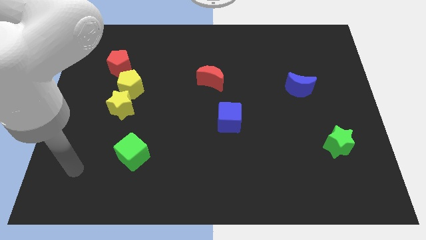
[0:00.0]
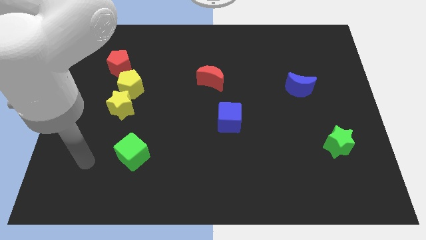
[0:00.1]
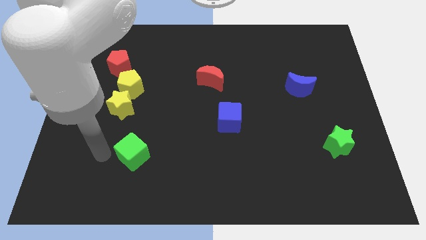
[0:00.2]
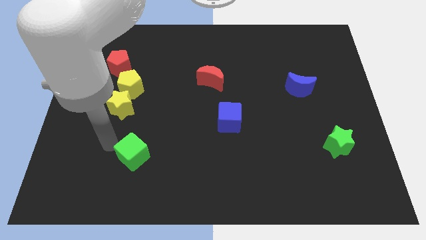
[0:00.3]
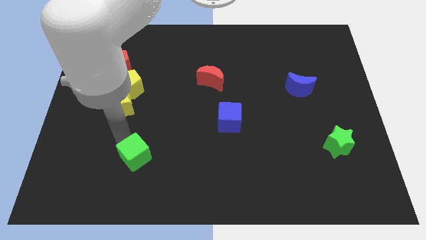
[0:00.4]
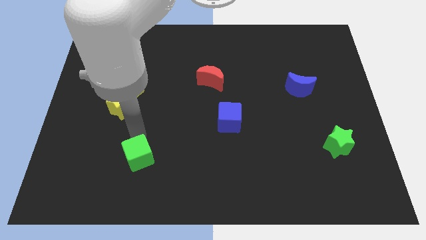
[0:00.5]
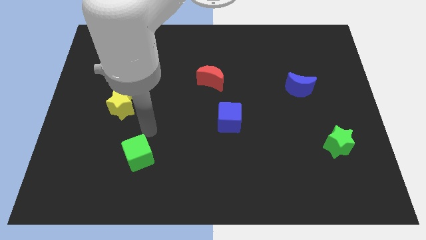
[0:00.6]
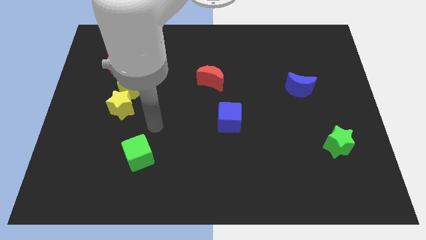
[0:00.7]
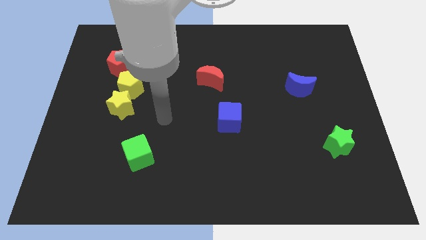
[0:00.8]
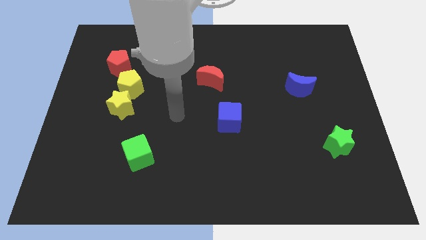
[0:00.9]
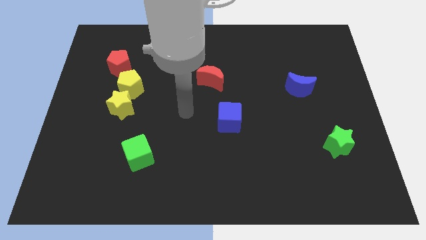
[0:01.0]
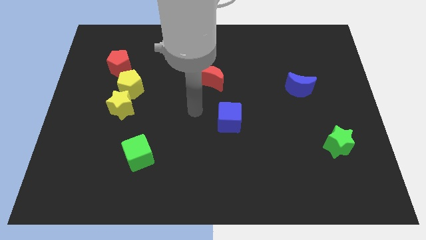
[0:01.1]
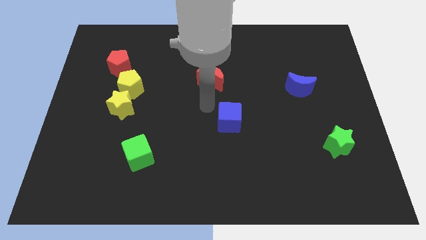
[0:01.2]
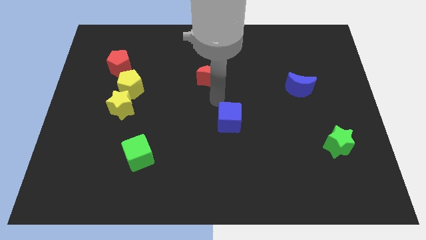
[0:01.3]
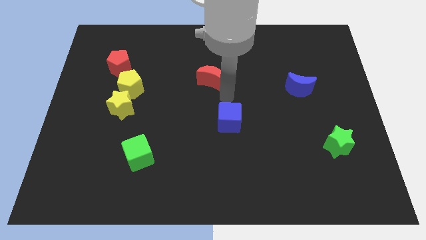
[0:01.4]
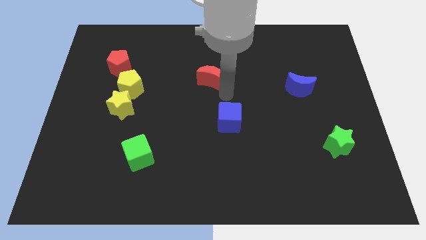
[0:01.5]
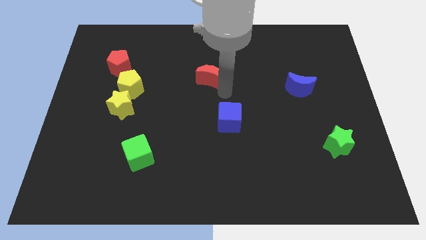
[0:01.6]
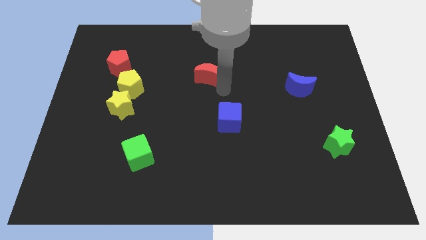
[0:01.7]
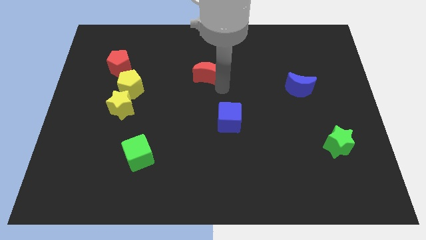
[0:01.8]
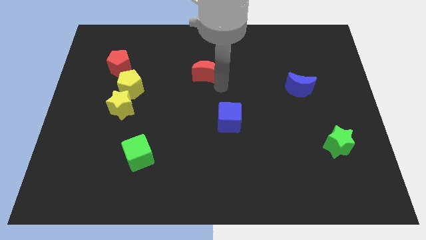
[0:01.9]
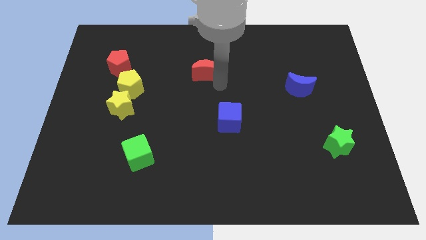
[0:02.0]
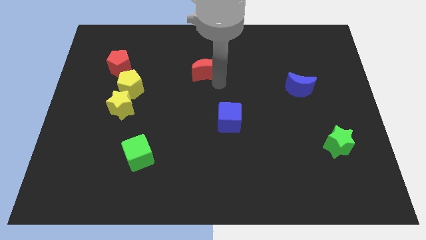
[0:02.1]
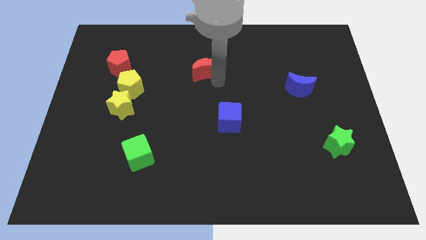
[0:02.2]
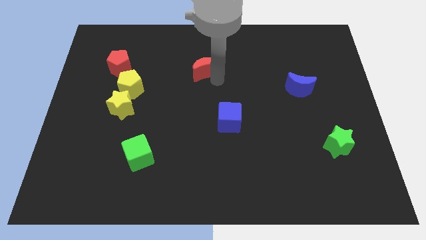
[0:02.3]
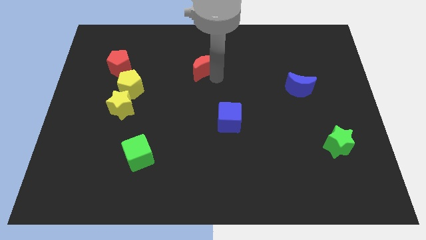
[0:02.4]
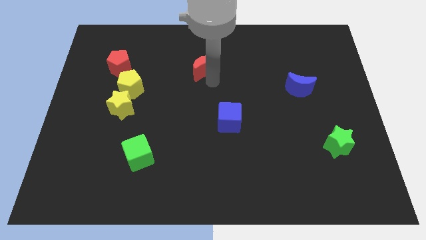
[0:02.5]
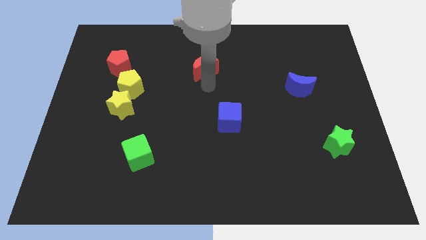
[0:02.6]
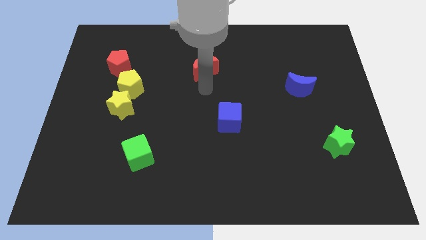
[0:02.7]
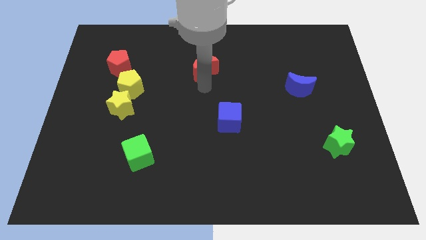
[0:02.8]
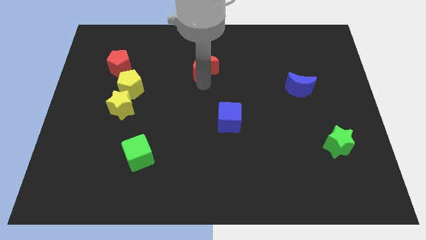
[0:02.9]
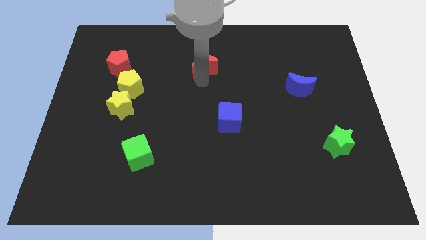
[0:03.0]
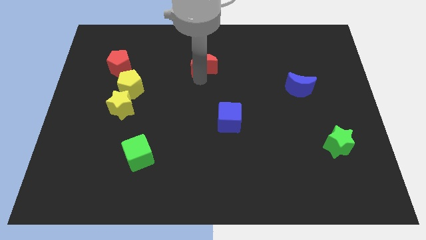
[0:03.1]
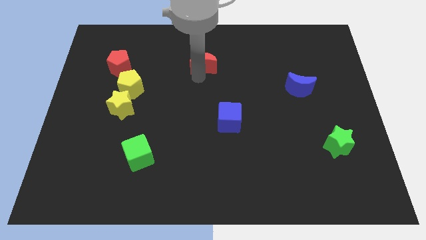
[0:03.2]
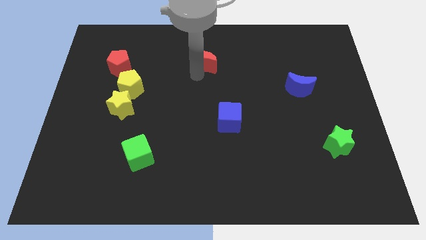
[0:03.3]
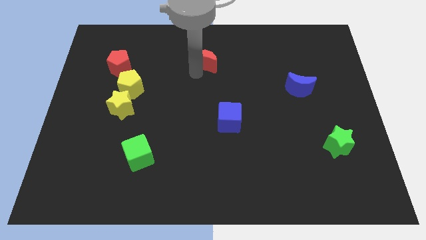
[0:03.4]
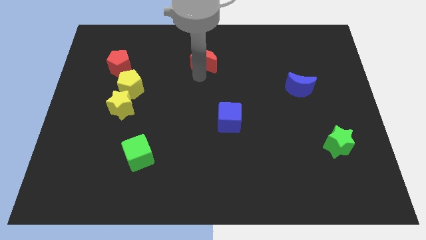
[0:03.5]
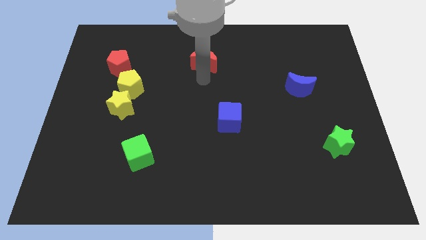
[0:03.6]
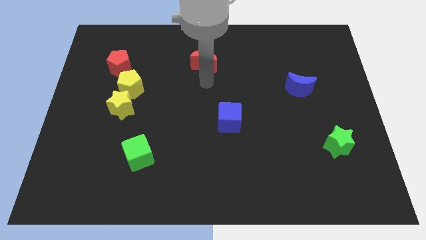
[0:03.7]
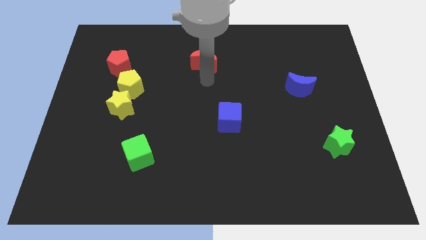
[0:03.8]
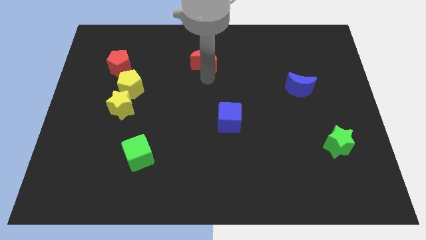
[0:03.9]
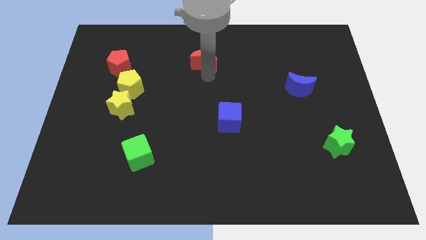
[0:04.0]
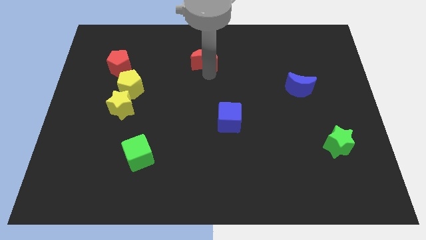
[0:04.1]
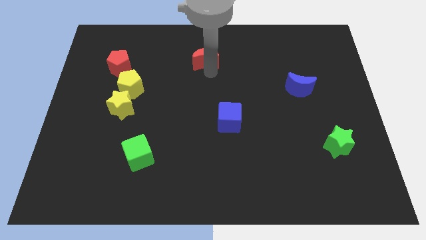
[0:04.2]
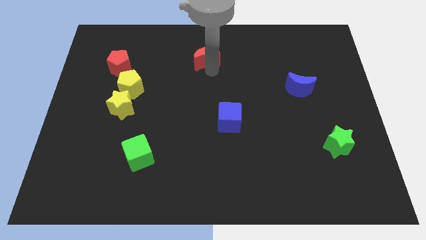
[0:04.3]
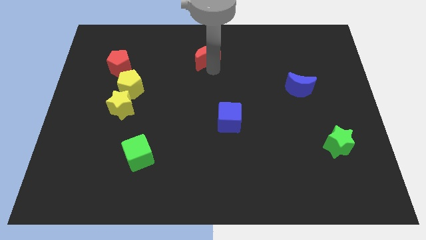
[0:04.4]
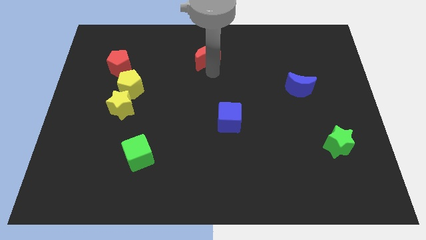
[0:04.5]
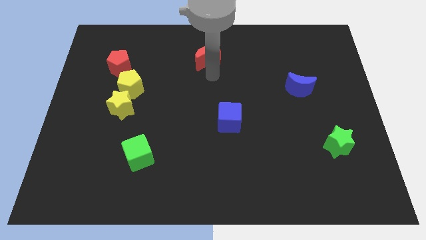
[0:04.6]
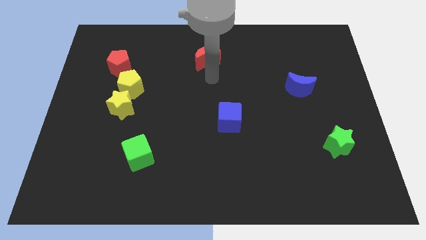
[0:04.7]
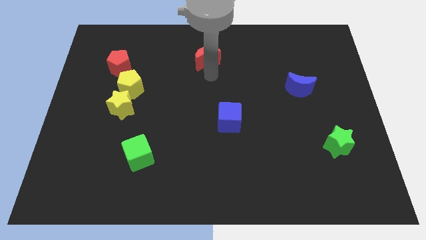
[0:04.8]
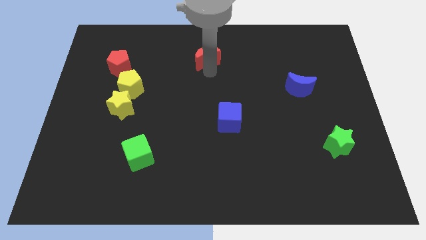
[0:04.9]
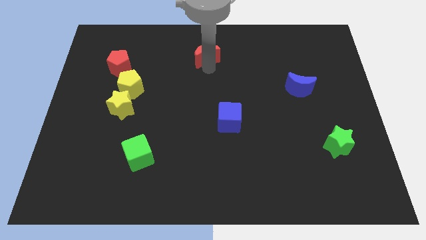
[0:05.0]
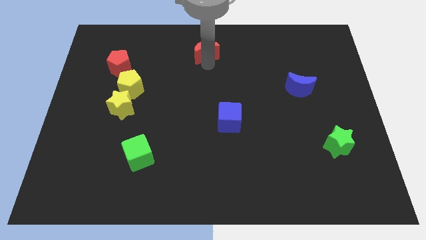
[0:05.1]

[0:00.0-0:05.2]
push the red moon to the towards your base

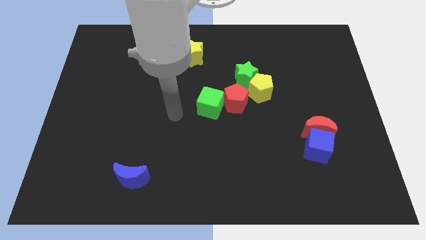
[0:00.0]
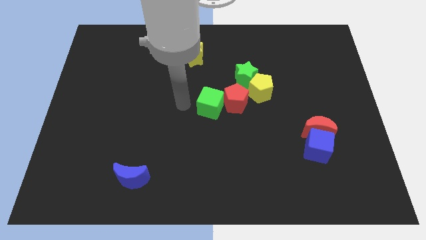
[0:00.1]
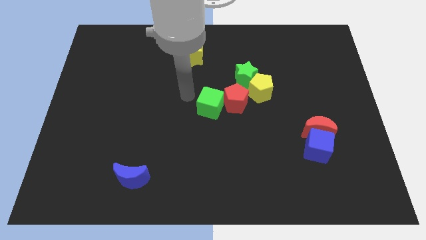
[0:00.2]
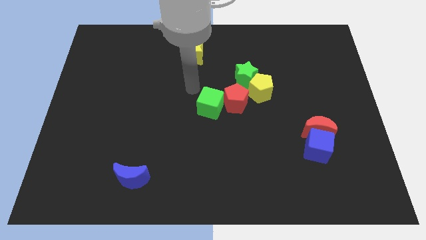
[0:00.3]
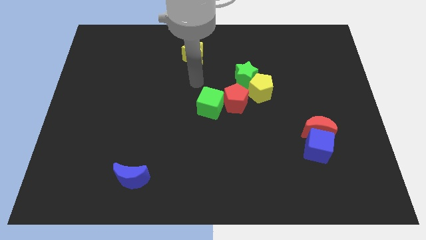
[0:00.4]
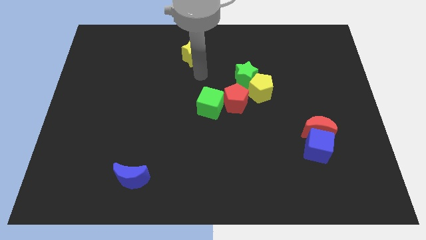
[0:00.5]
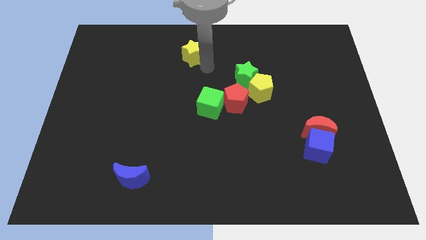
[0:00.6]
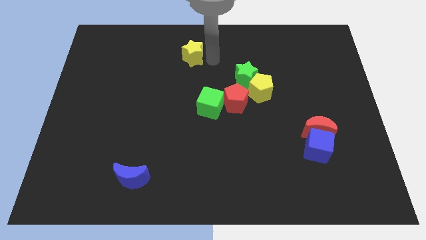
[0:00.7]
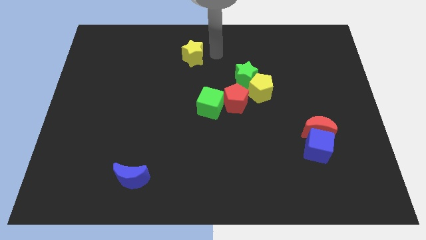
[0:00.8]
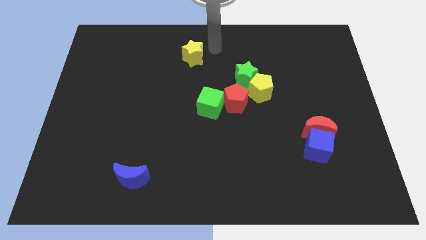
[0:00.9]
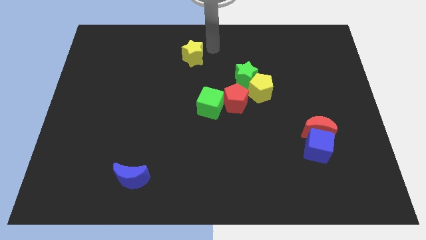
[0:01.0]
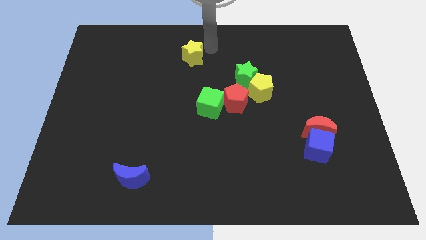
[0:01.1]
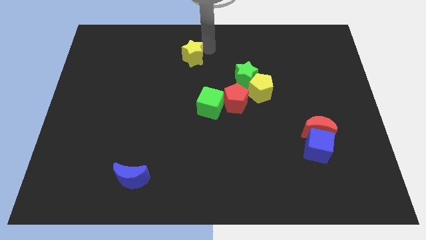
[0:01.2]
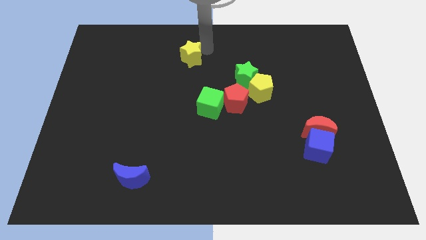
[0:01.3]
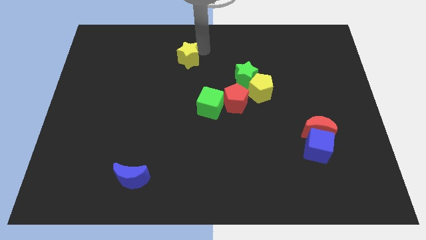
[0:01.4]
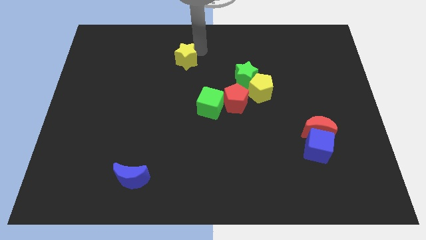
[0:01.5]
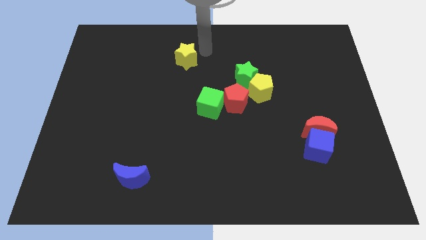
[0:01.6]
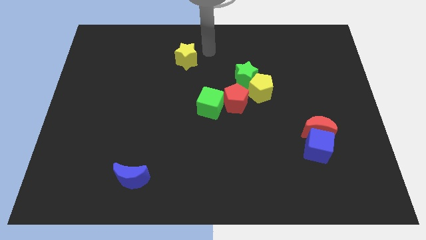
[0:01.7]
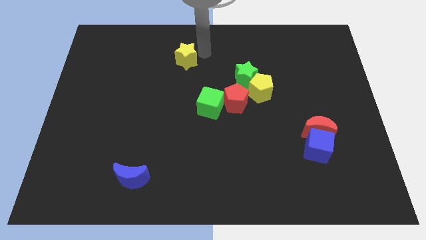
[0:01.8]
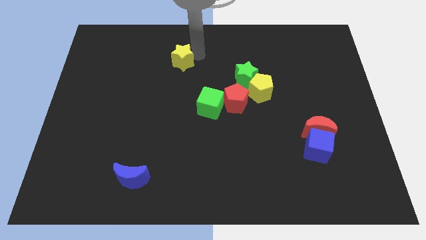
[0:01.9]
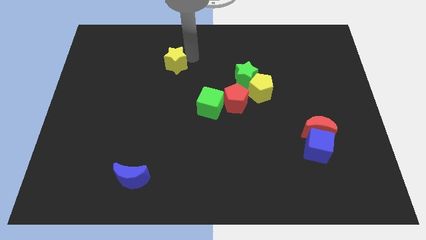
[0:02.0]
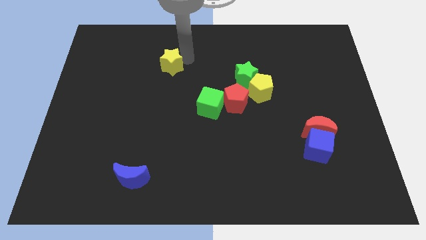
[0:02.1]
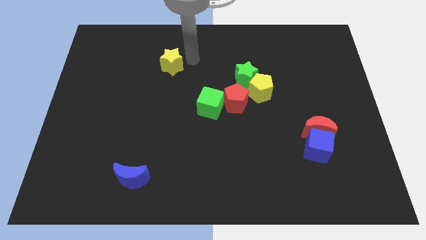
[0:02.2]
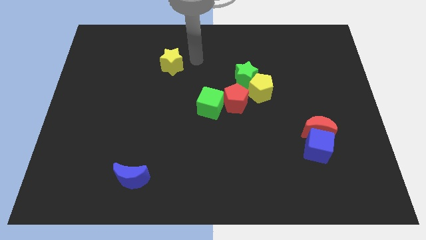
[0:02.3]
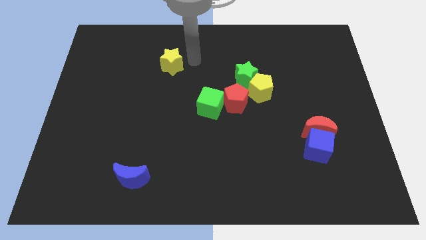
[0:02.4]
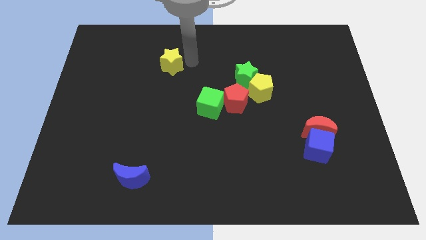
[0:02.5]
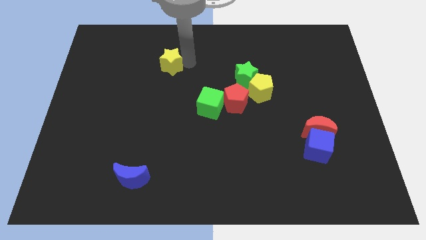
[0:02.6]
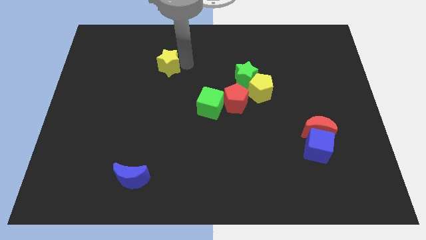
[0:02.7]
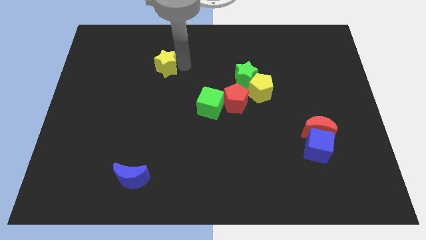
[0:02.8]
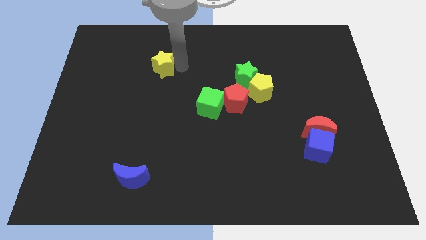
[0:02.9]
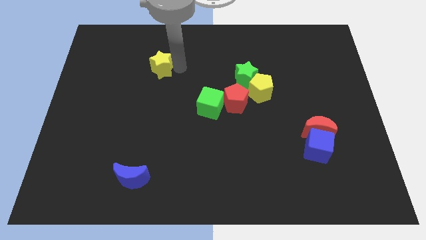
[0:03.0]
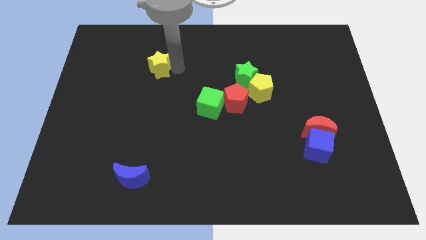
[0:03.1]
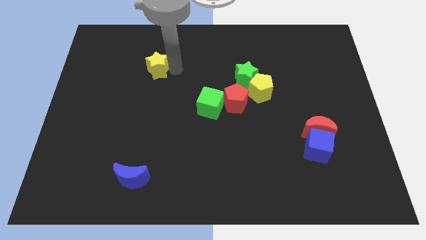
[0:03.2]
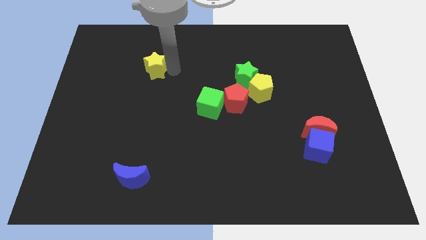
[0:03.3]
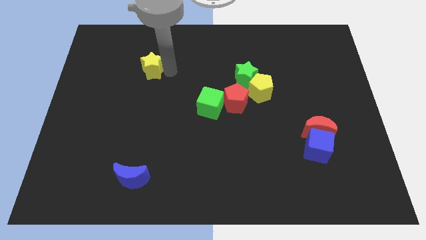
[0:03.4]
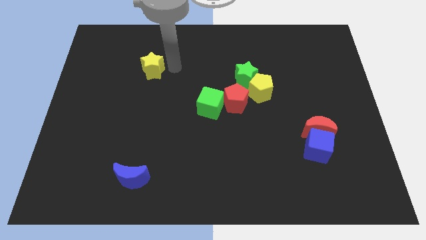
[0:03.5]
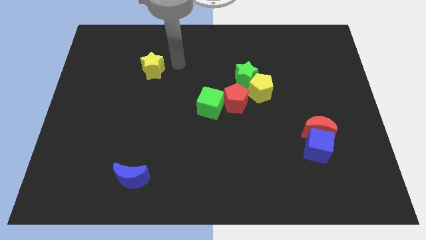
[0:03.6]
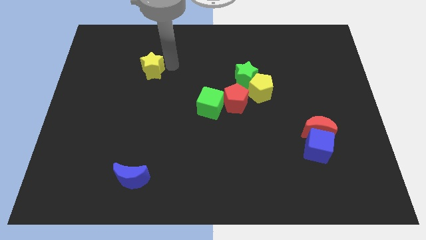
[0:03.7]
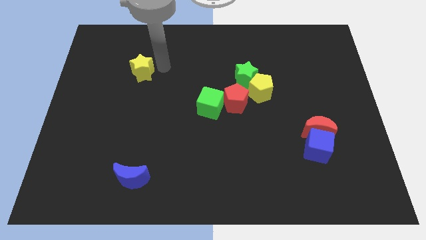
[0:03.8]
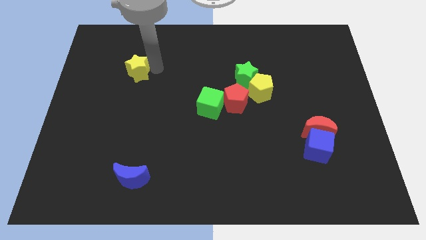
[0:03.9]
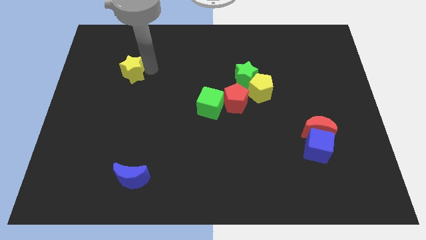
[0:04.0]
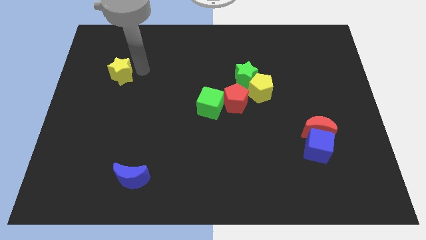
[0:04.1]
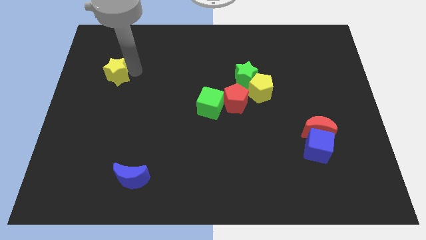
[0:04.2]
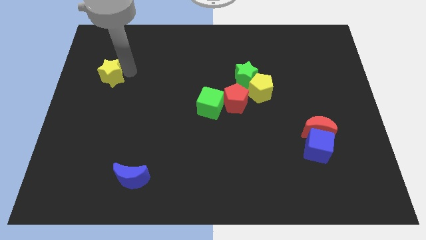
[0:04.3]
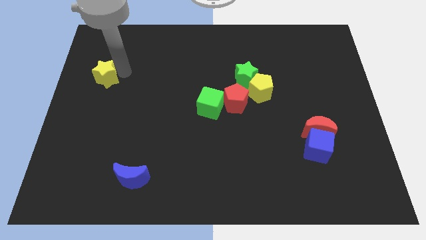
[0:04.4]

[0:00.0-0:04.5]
push the yellow star to the center left
